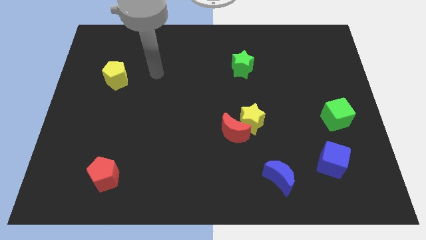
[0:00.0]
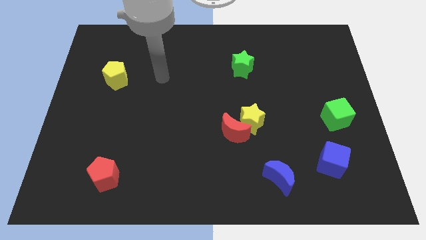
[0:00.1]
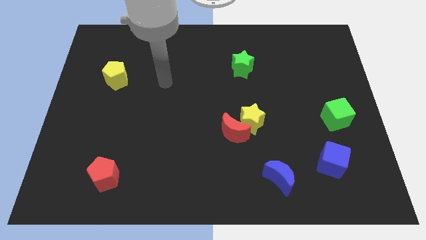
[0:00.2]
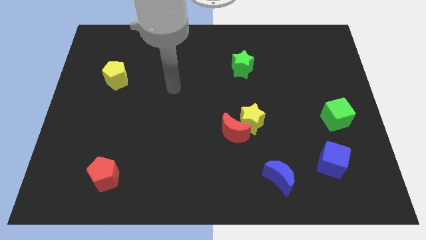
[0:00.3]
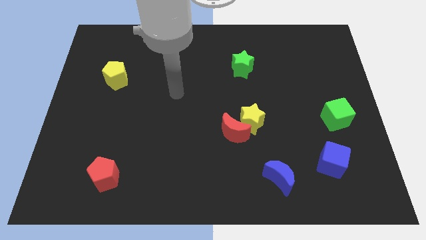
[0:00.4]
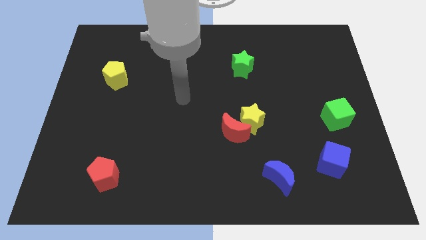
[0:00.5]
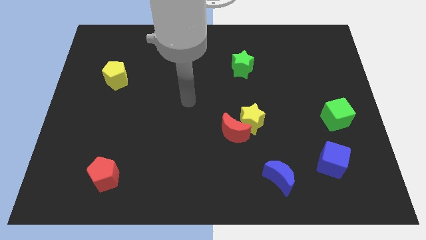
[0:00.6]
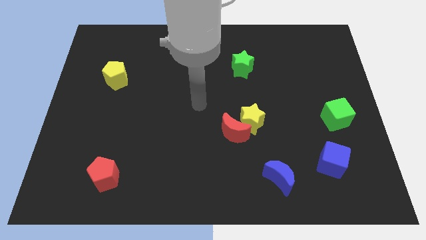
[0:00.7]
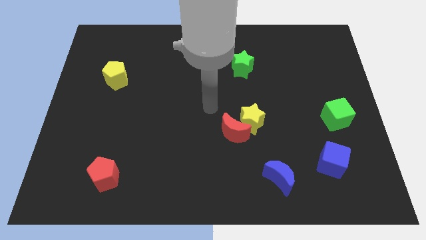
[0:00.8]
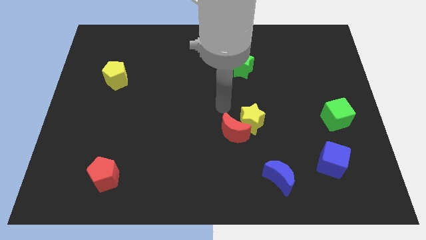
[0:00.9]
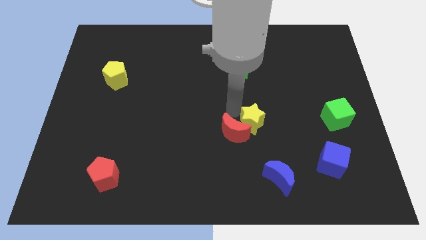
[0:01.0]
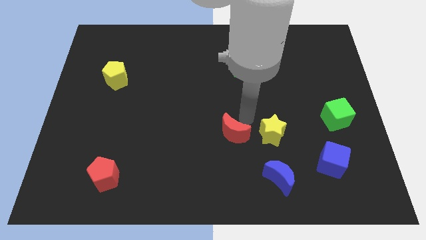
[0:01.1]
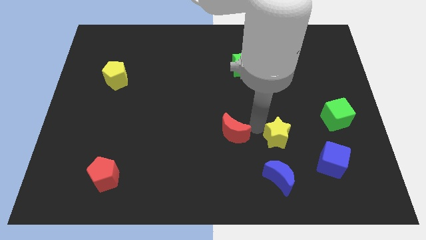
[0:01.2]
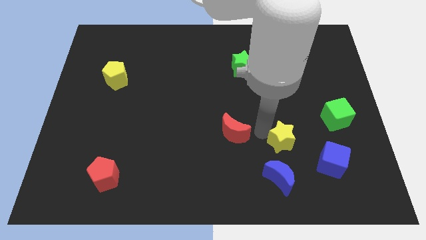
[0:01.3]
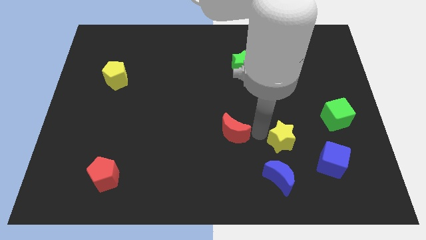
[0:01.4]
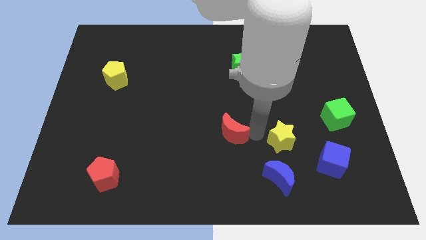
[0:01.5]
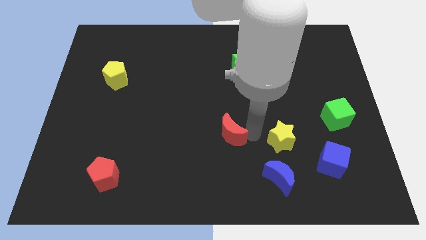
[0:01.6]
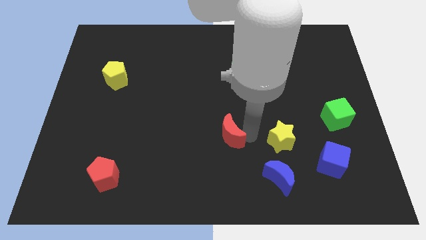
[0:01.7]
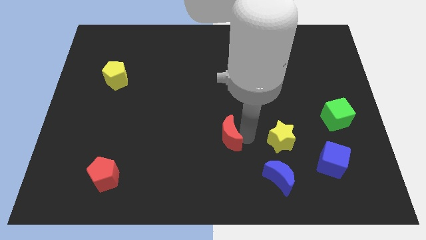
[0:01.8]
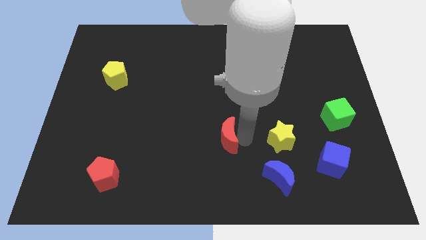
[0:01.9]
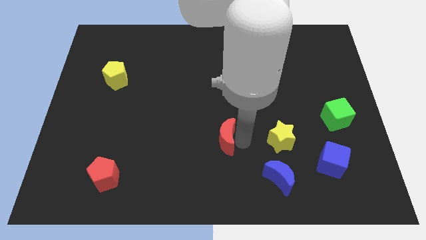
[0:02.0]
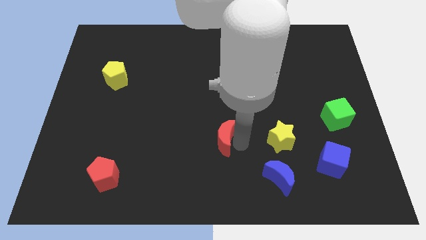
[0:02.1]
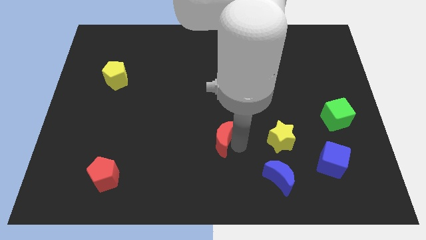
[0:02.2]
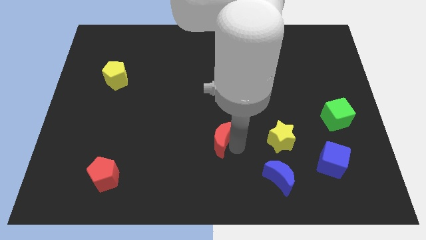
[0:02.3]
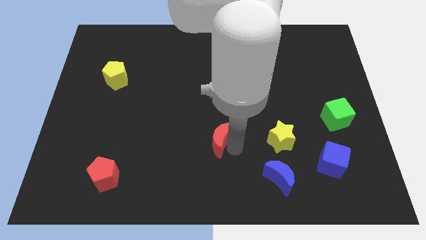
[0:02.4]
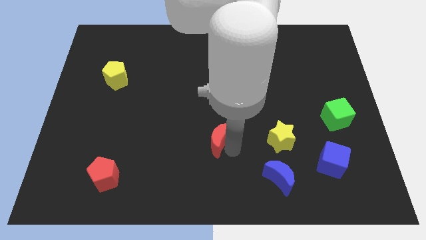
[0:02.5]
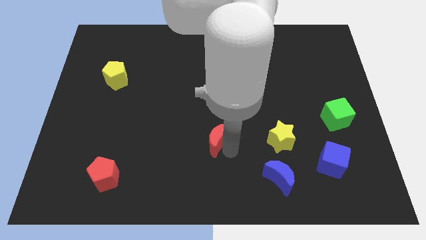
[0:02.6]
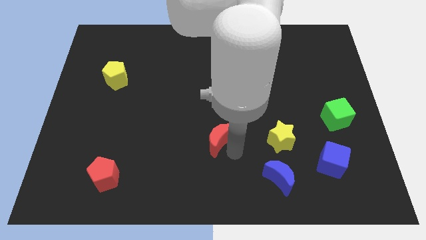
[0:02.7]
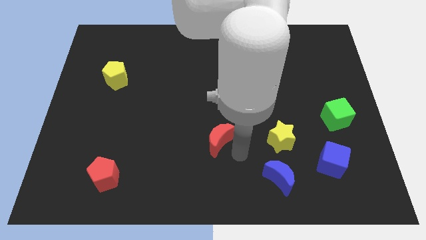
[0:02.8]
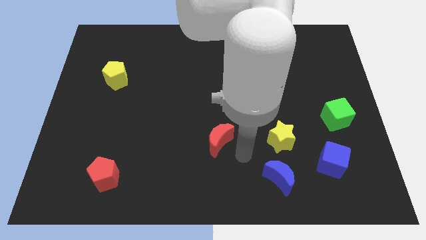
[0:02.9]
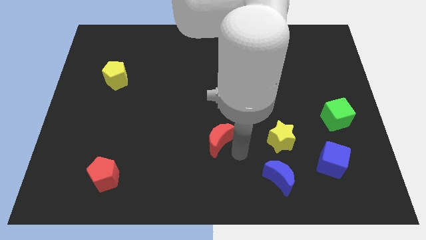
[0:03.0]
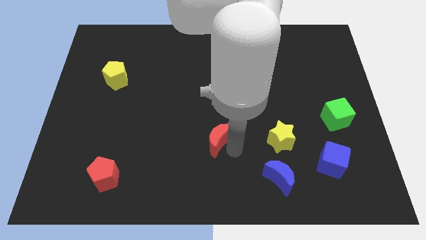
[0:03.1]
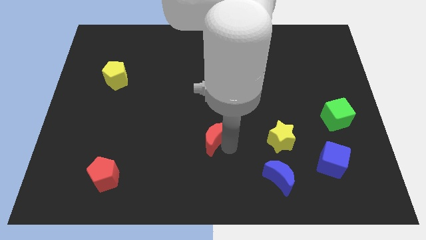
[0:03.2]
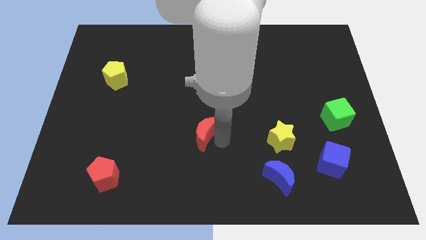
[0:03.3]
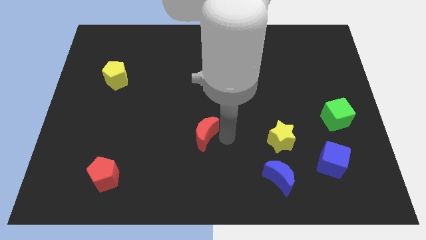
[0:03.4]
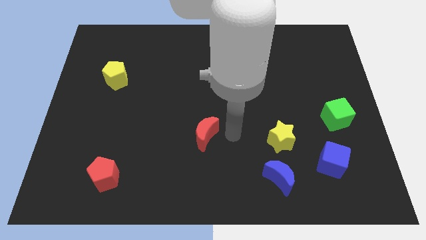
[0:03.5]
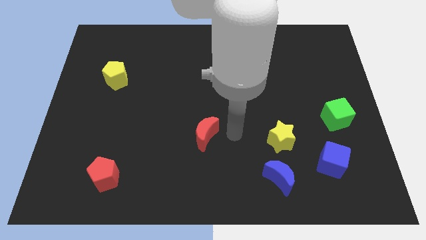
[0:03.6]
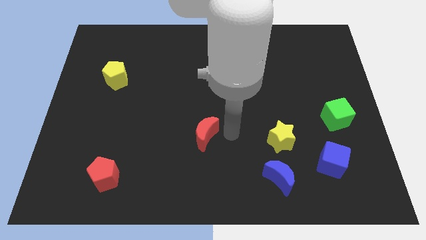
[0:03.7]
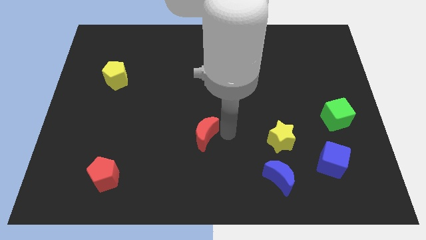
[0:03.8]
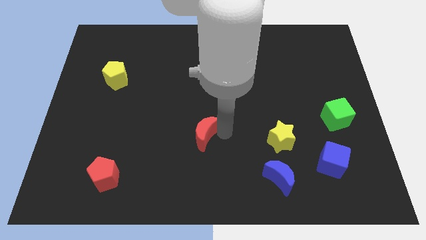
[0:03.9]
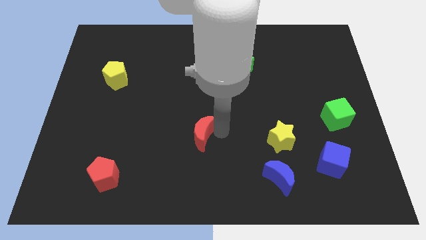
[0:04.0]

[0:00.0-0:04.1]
push the red moon a little bit to the left

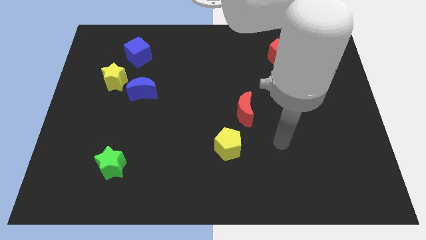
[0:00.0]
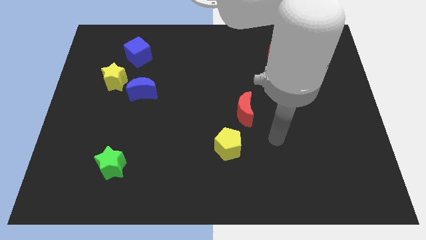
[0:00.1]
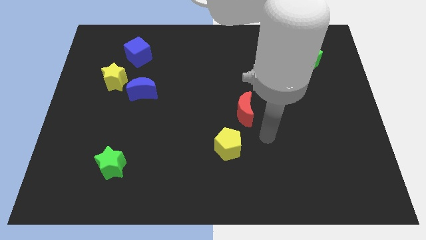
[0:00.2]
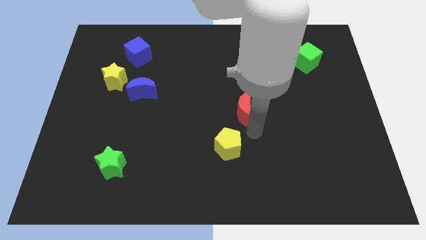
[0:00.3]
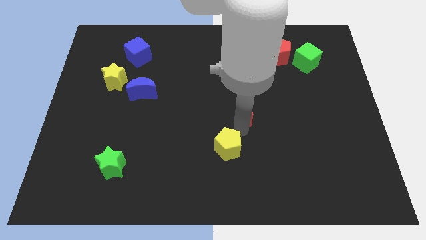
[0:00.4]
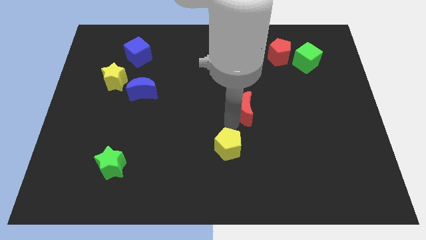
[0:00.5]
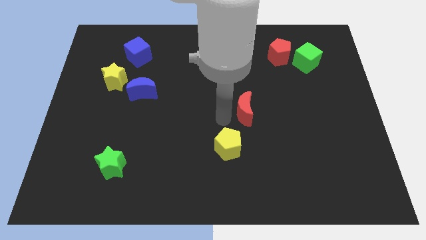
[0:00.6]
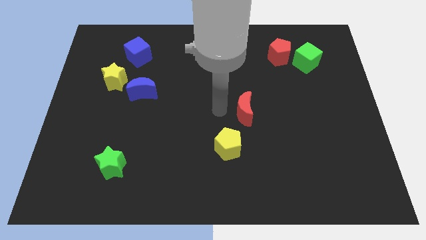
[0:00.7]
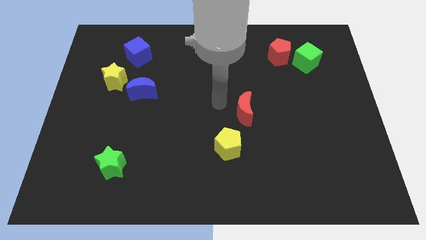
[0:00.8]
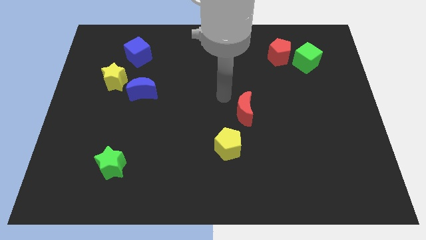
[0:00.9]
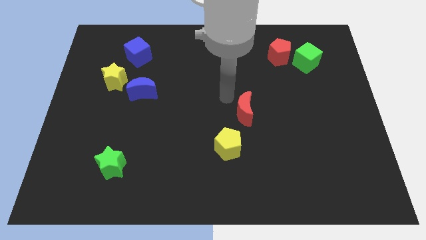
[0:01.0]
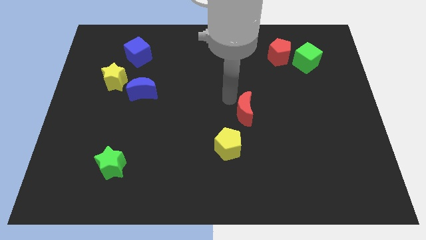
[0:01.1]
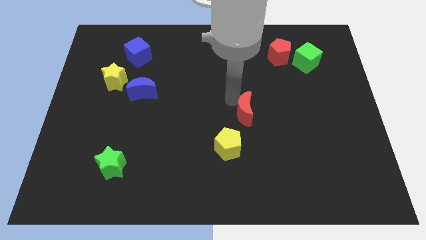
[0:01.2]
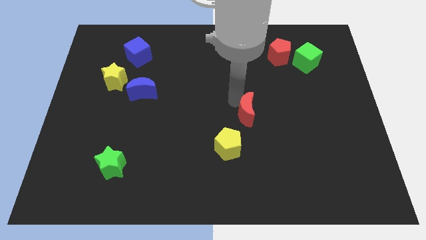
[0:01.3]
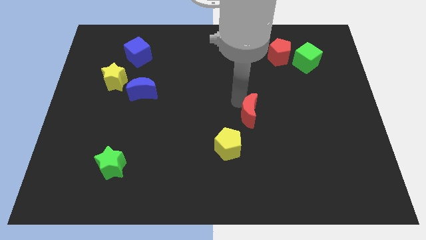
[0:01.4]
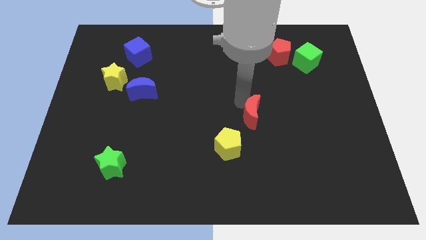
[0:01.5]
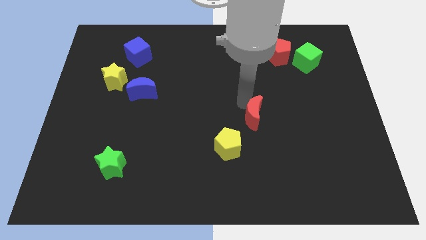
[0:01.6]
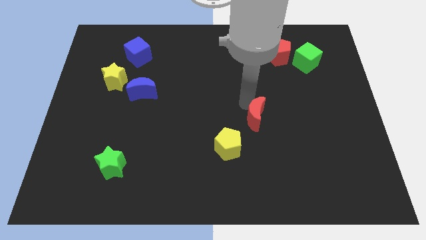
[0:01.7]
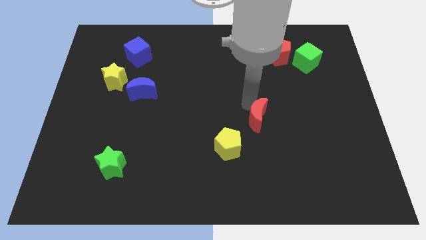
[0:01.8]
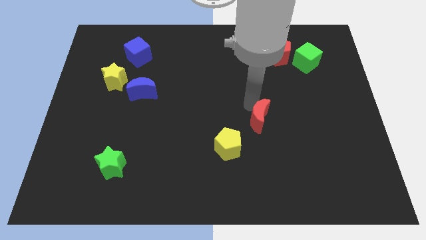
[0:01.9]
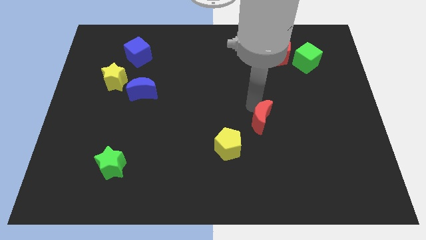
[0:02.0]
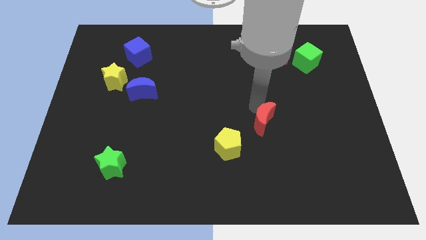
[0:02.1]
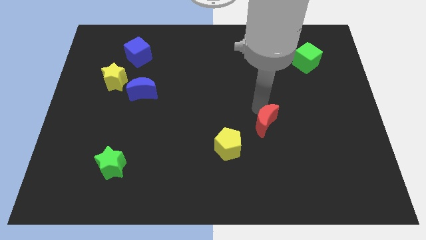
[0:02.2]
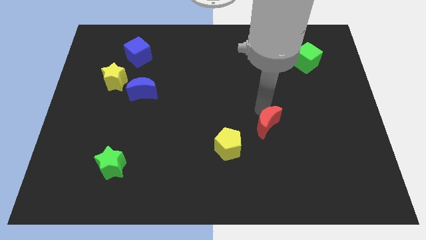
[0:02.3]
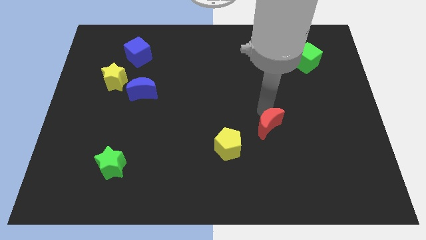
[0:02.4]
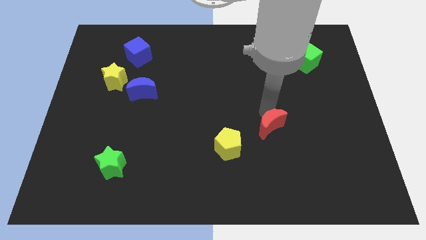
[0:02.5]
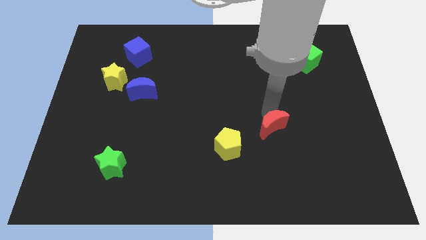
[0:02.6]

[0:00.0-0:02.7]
push the red moon a little bit downwards and right diagonally

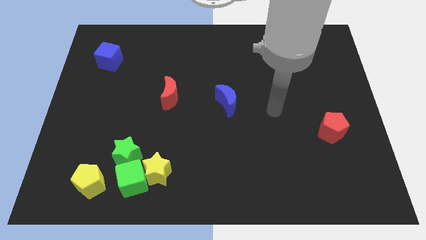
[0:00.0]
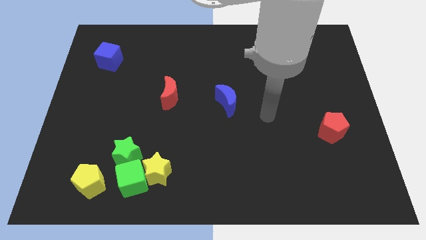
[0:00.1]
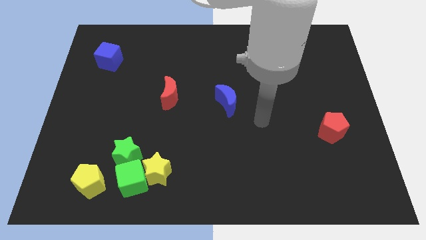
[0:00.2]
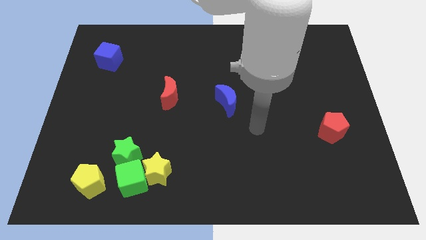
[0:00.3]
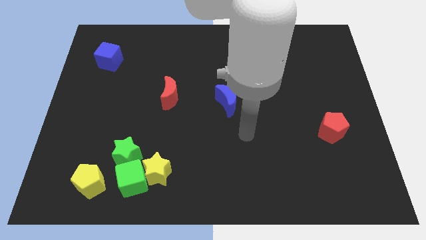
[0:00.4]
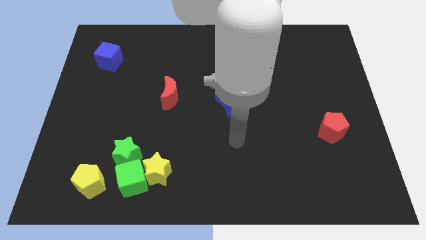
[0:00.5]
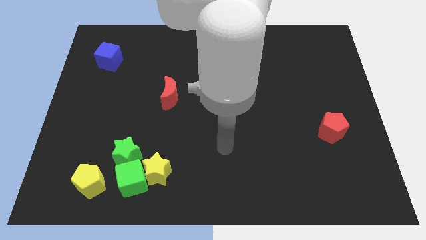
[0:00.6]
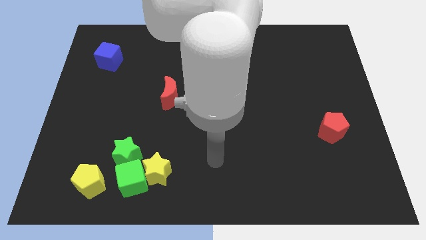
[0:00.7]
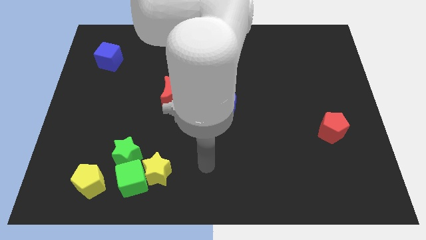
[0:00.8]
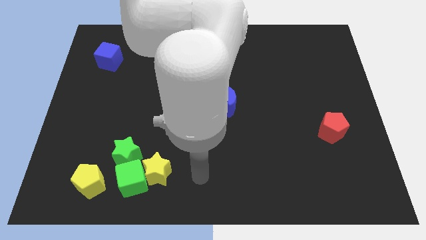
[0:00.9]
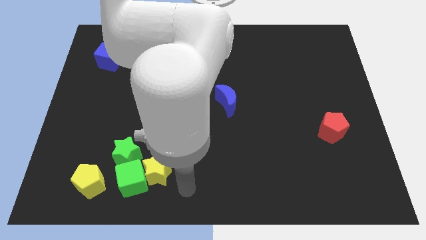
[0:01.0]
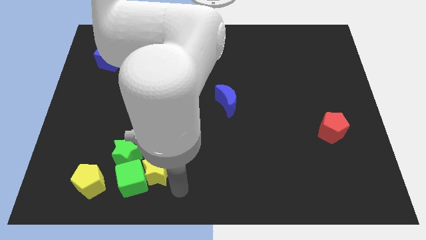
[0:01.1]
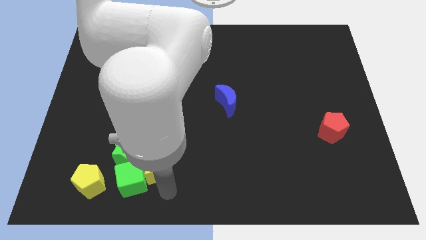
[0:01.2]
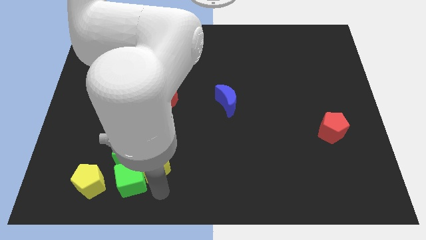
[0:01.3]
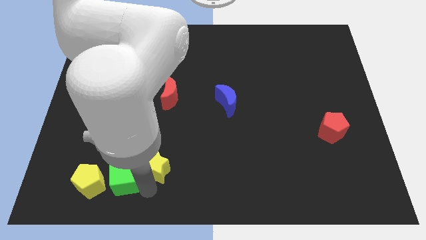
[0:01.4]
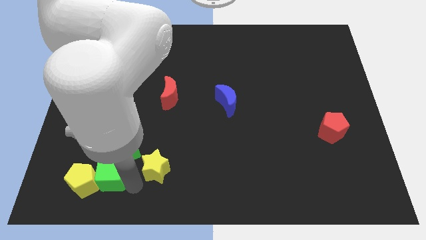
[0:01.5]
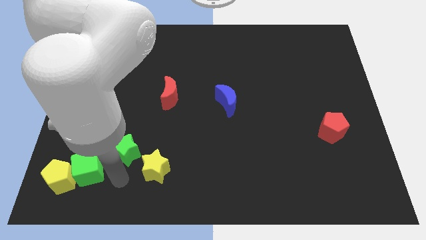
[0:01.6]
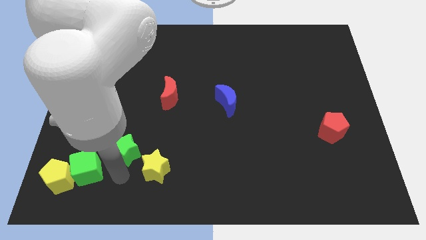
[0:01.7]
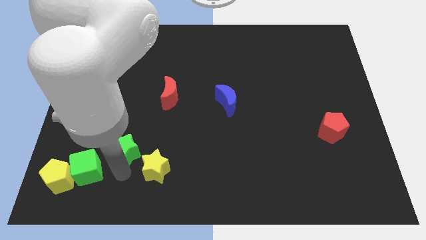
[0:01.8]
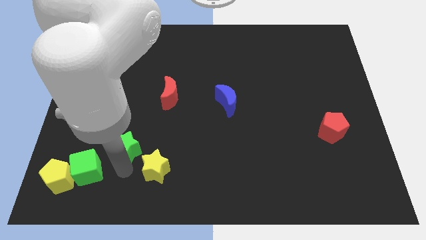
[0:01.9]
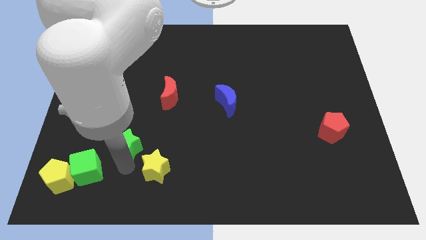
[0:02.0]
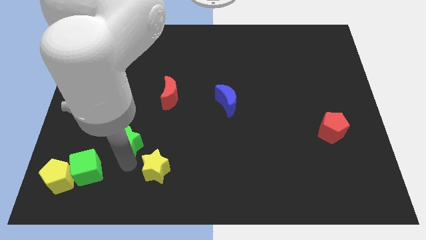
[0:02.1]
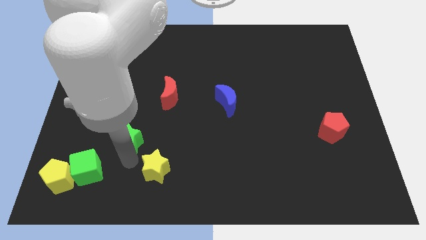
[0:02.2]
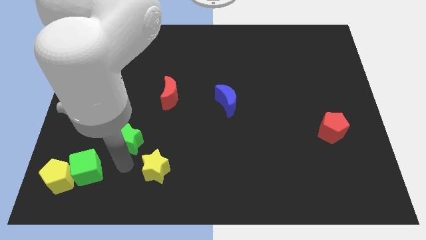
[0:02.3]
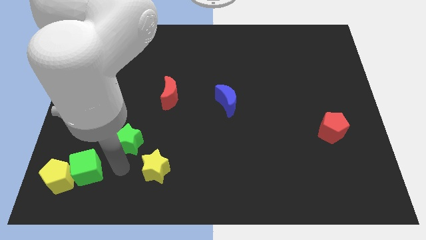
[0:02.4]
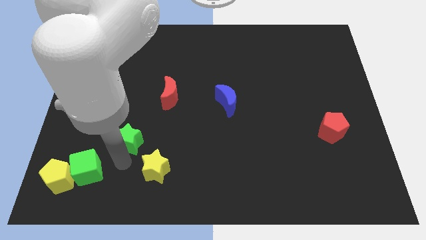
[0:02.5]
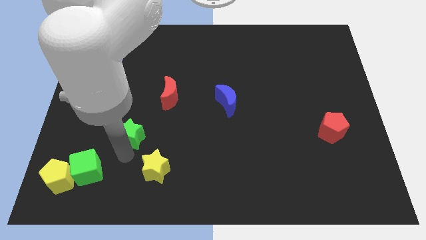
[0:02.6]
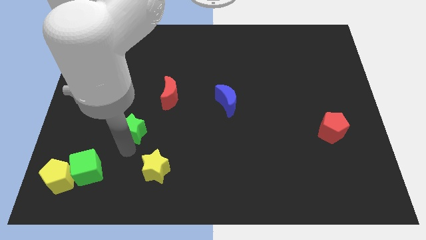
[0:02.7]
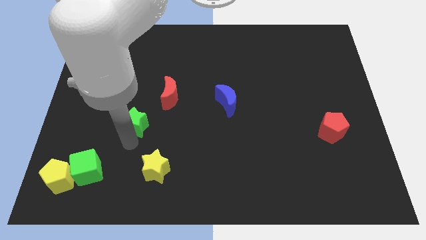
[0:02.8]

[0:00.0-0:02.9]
push the green star upwards a little bit
